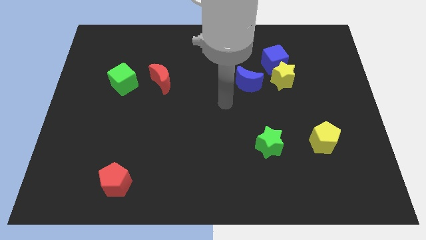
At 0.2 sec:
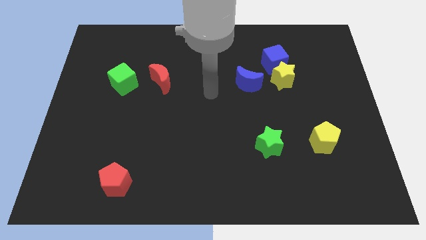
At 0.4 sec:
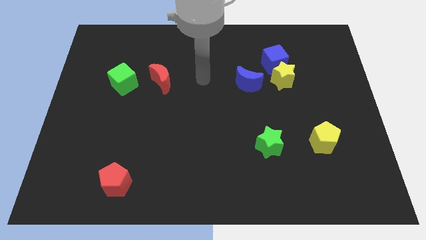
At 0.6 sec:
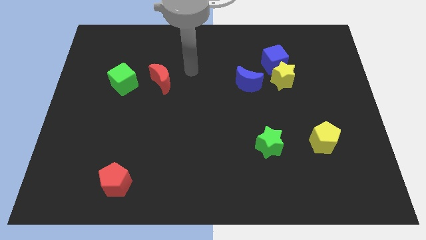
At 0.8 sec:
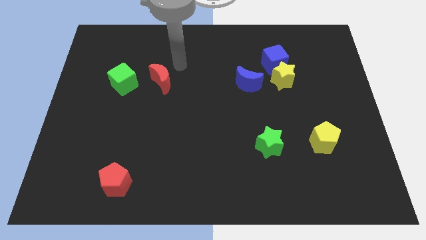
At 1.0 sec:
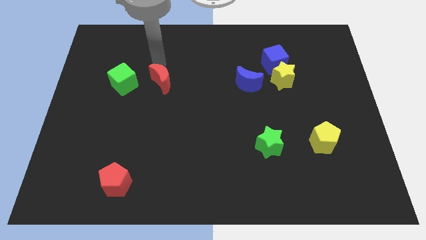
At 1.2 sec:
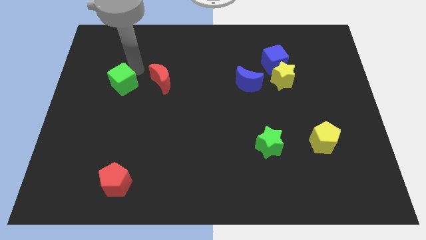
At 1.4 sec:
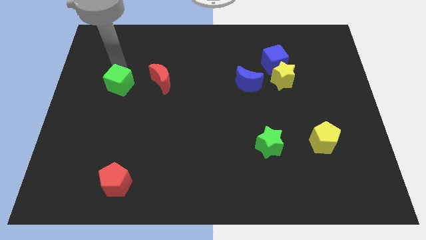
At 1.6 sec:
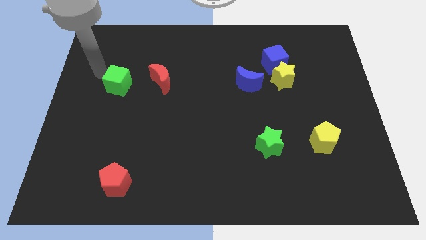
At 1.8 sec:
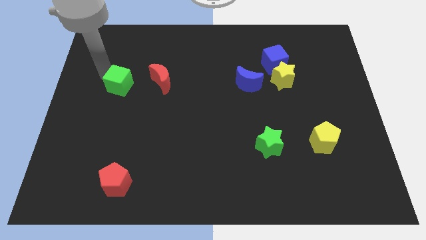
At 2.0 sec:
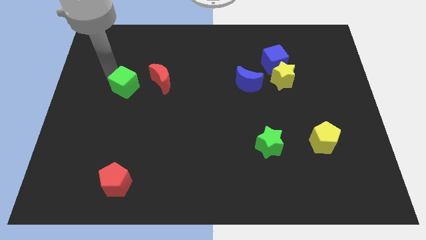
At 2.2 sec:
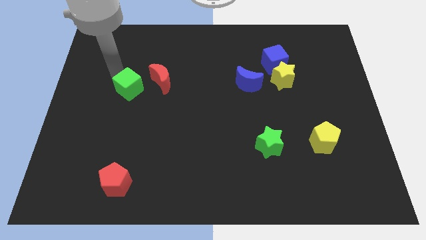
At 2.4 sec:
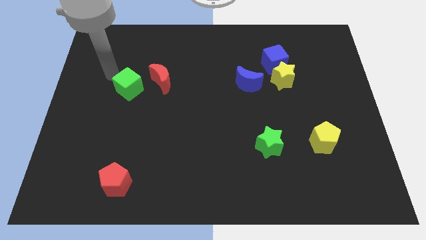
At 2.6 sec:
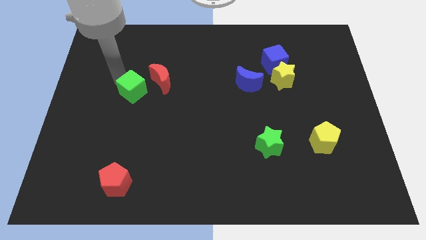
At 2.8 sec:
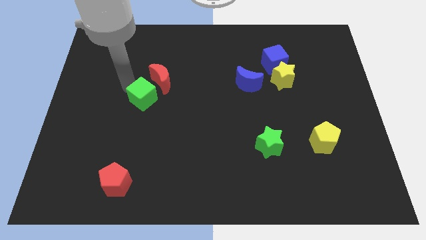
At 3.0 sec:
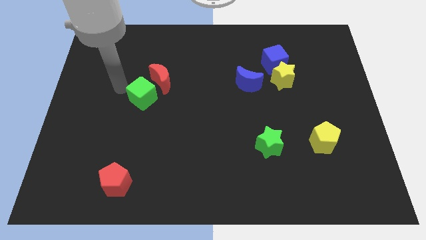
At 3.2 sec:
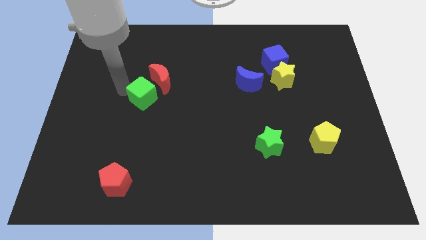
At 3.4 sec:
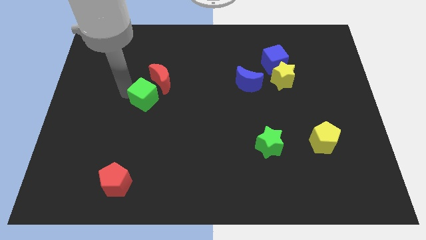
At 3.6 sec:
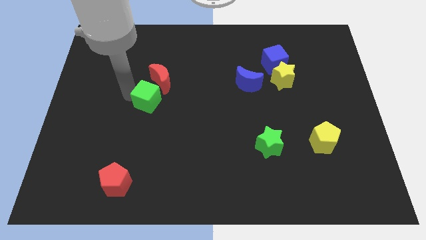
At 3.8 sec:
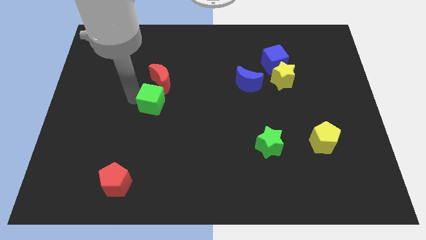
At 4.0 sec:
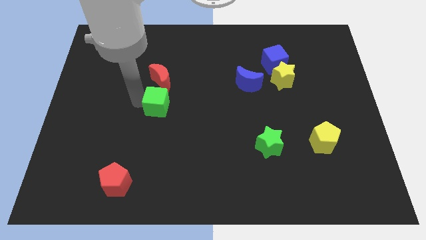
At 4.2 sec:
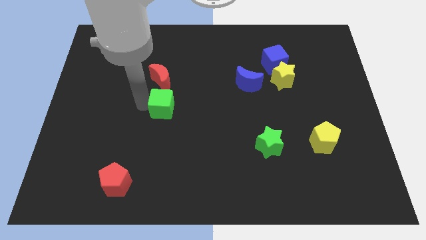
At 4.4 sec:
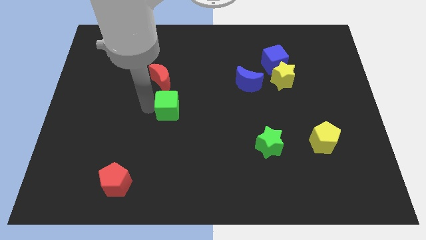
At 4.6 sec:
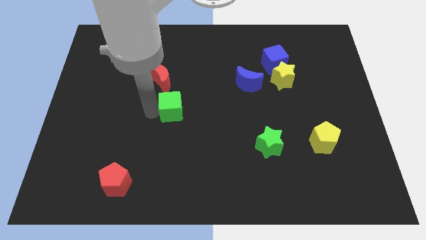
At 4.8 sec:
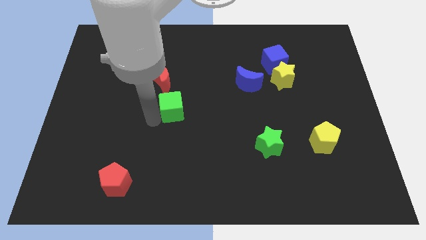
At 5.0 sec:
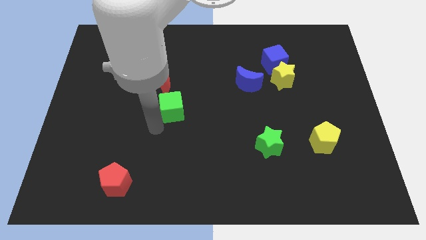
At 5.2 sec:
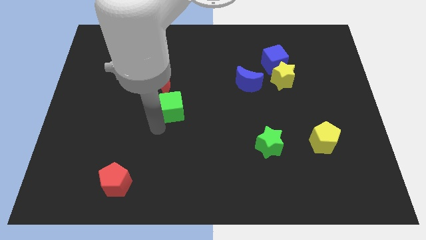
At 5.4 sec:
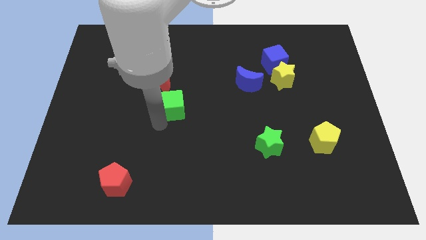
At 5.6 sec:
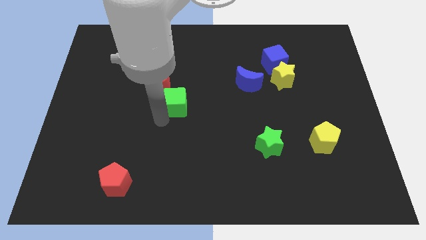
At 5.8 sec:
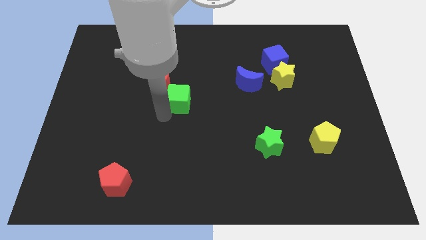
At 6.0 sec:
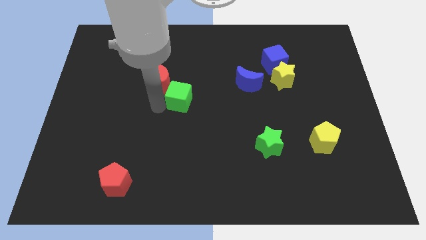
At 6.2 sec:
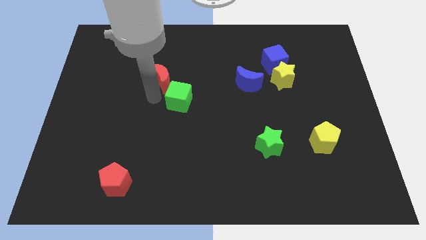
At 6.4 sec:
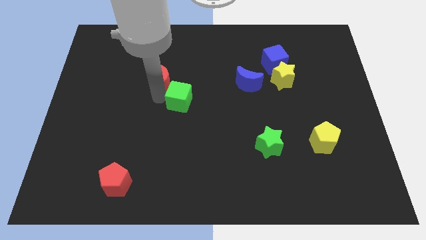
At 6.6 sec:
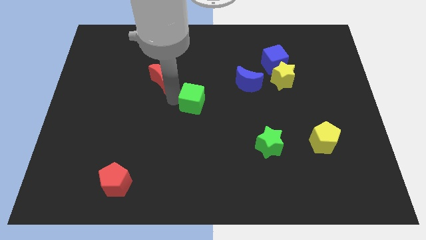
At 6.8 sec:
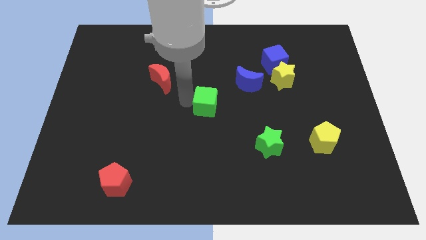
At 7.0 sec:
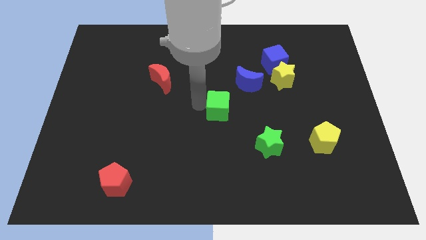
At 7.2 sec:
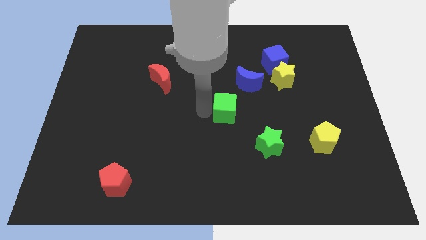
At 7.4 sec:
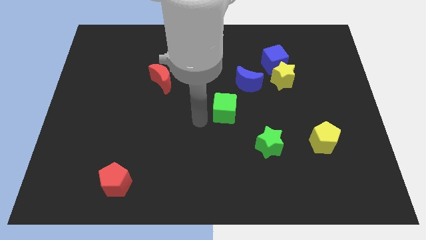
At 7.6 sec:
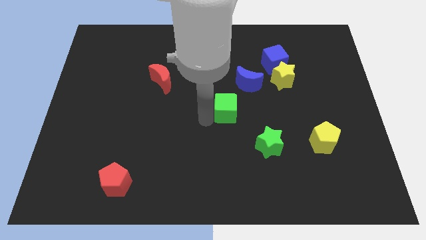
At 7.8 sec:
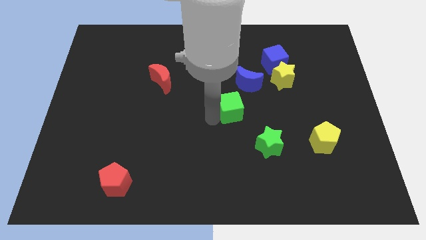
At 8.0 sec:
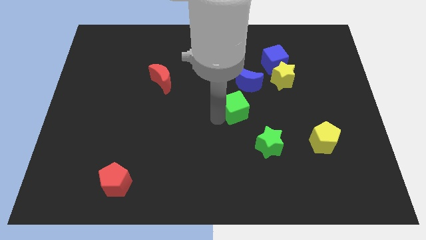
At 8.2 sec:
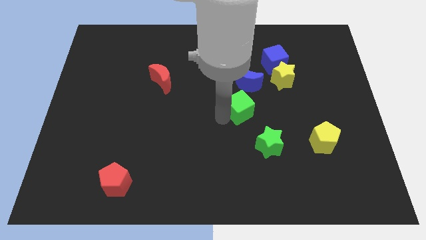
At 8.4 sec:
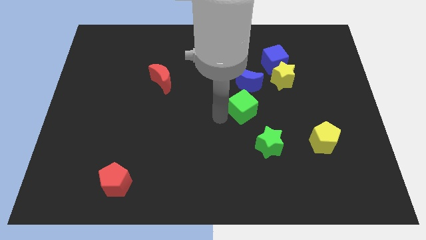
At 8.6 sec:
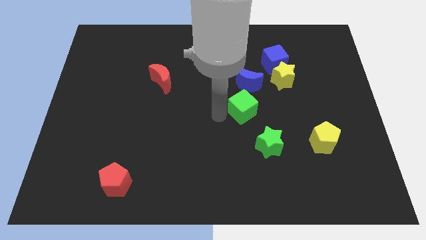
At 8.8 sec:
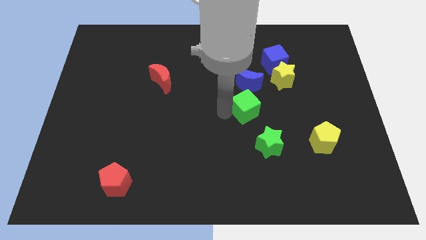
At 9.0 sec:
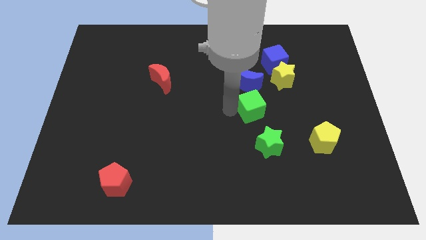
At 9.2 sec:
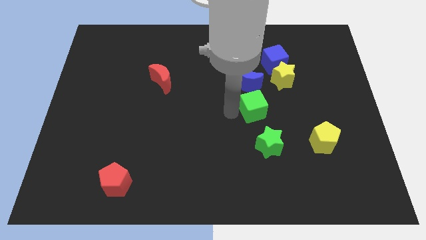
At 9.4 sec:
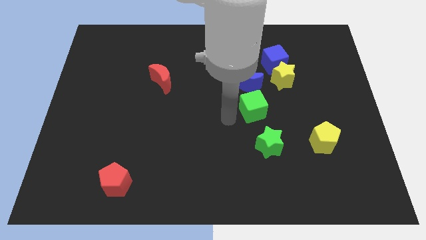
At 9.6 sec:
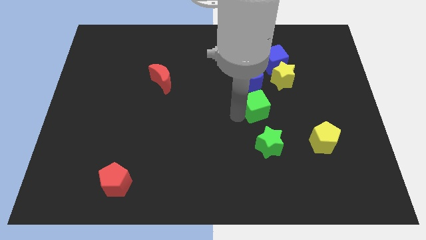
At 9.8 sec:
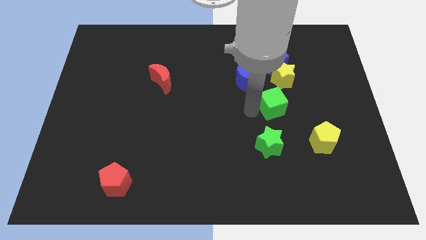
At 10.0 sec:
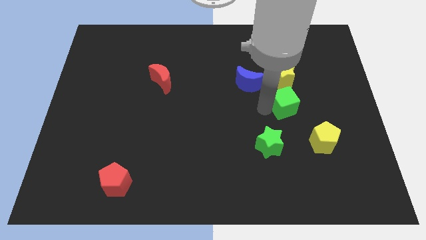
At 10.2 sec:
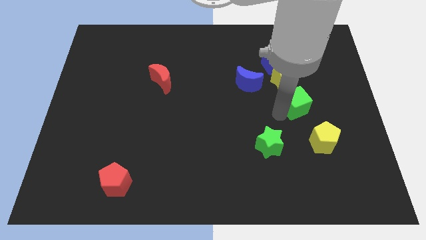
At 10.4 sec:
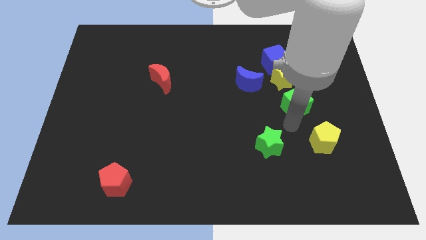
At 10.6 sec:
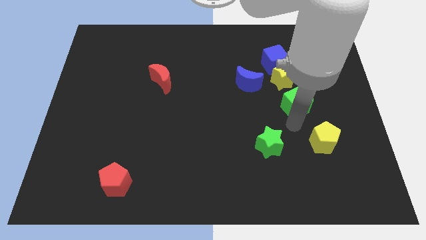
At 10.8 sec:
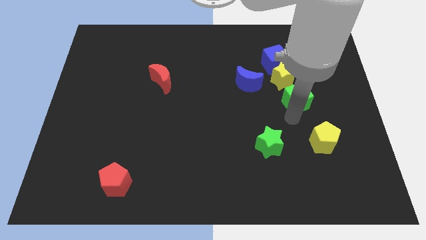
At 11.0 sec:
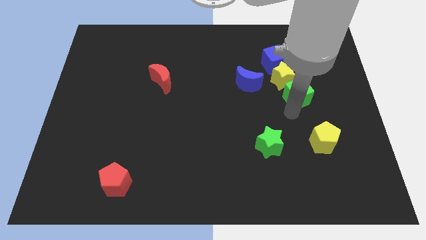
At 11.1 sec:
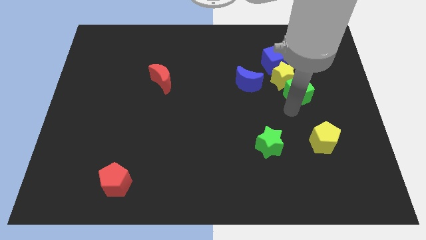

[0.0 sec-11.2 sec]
put the green cube to the bottom right of the blue cube

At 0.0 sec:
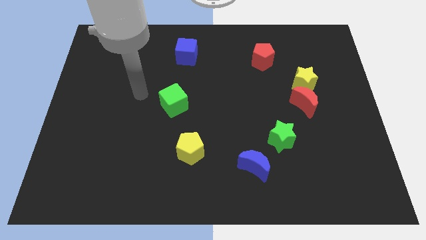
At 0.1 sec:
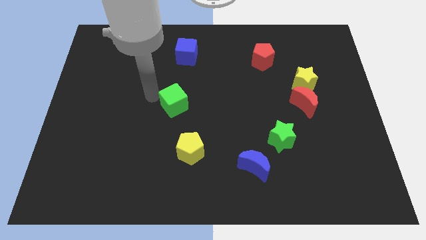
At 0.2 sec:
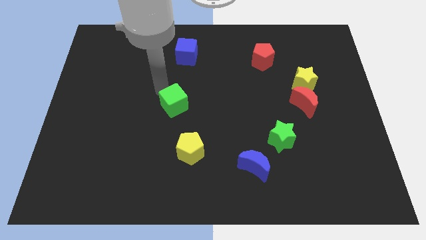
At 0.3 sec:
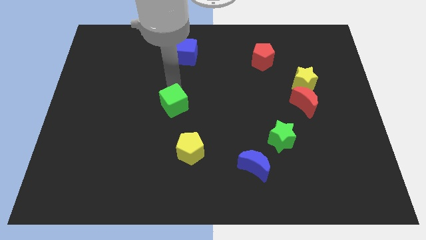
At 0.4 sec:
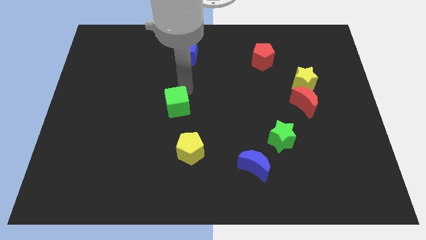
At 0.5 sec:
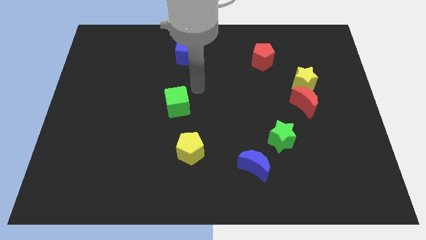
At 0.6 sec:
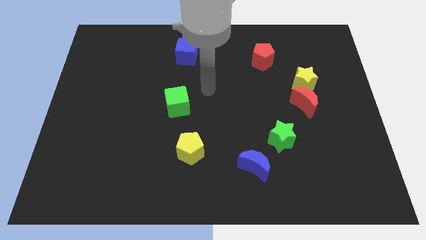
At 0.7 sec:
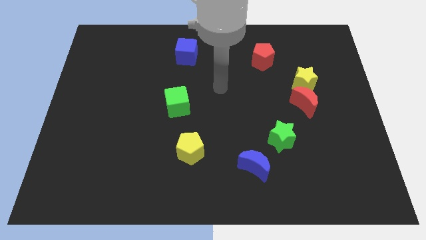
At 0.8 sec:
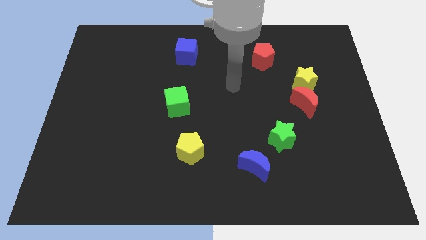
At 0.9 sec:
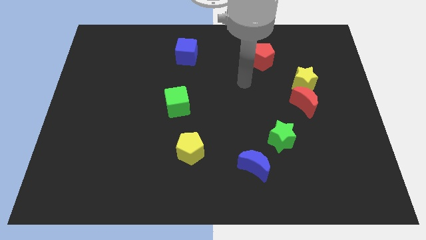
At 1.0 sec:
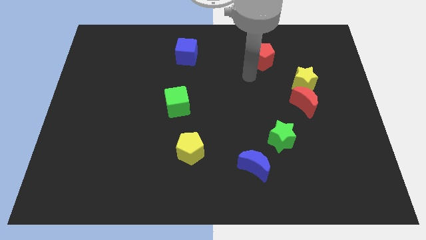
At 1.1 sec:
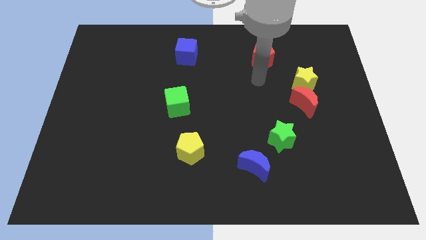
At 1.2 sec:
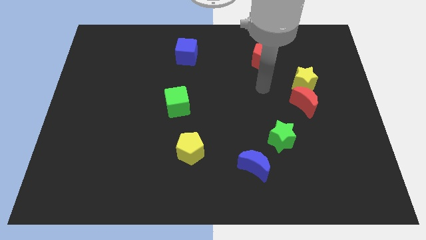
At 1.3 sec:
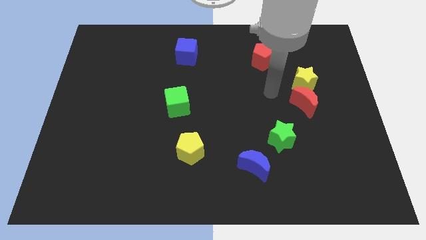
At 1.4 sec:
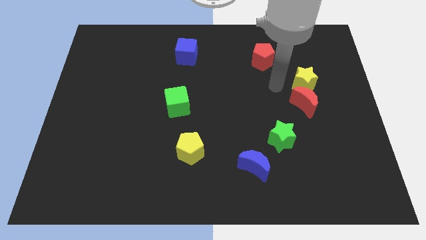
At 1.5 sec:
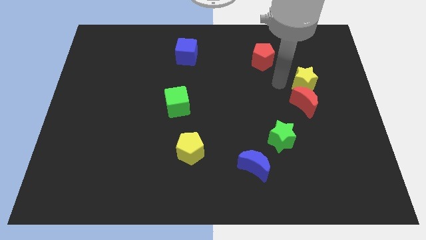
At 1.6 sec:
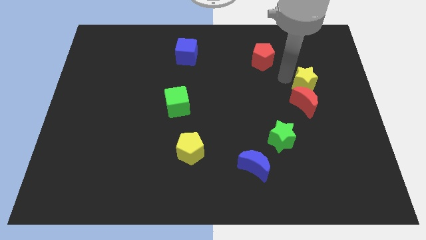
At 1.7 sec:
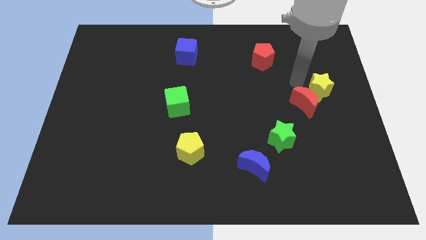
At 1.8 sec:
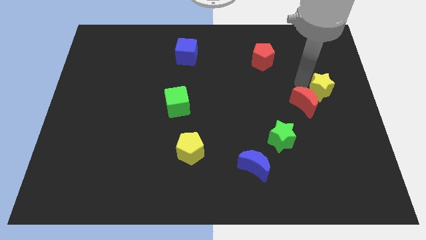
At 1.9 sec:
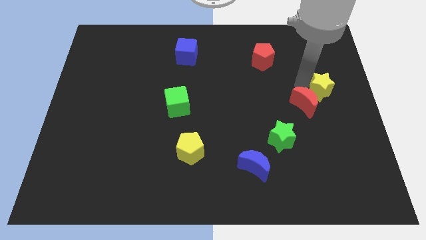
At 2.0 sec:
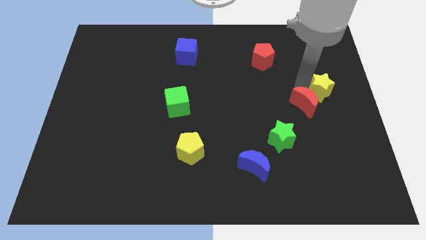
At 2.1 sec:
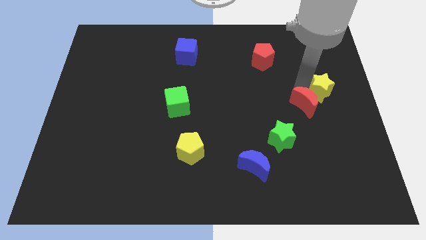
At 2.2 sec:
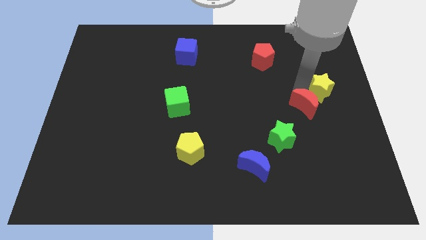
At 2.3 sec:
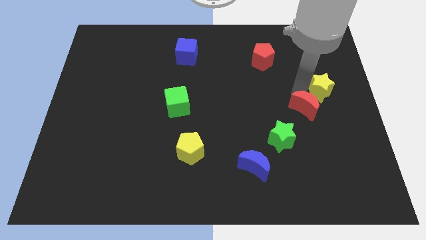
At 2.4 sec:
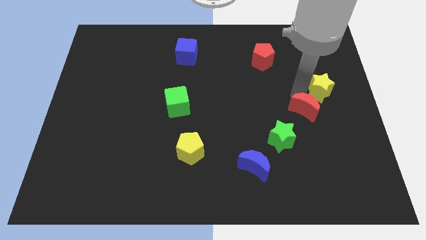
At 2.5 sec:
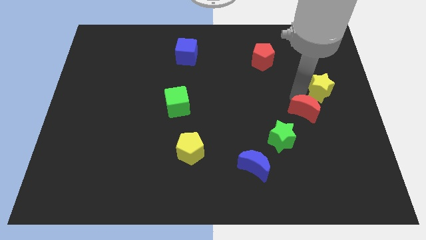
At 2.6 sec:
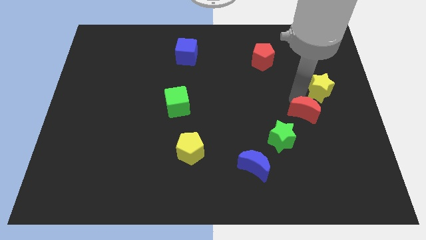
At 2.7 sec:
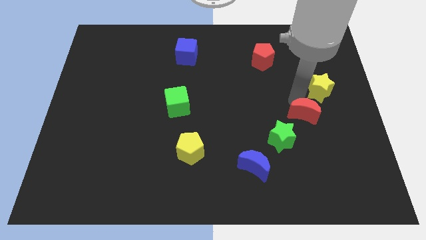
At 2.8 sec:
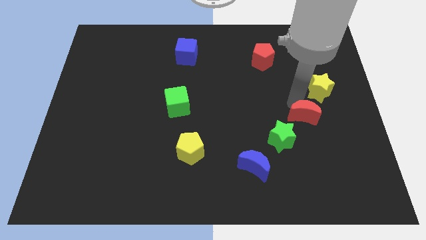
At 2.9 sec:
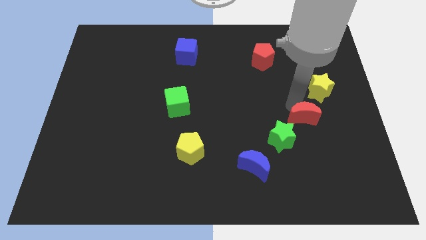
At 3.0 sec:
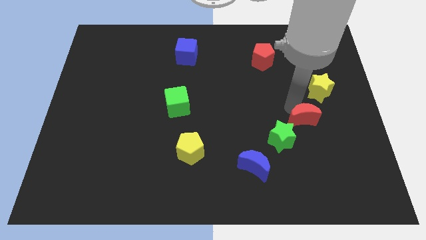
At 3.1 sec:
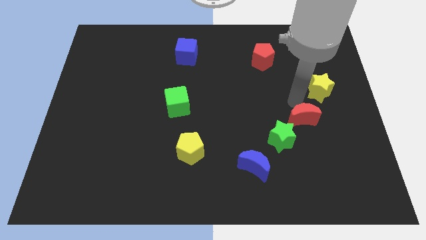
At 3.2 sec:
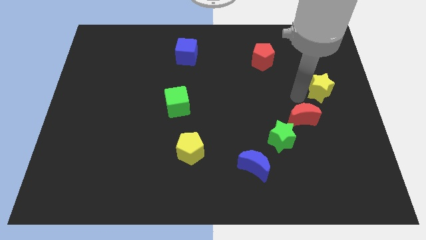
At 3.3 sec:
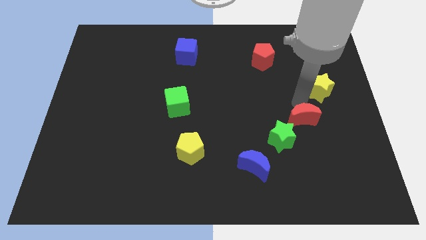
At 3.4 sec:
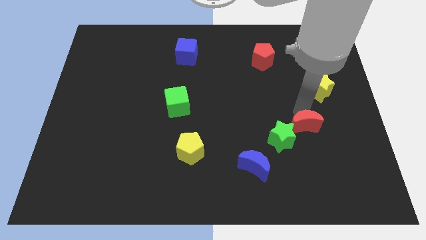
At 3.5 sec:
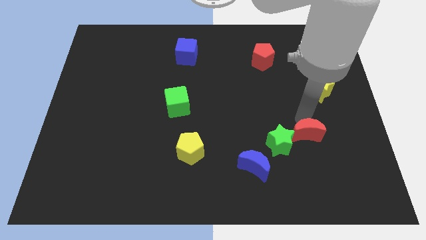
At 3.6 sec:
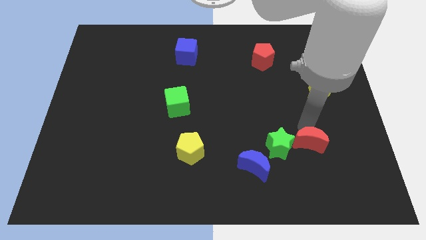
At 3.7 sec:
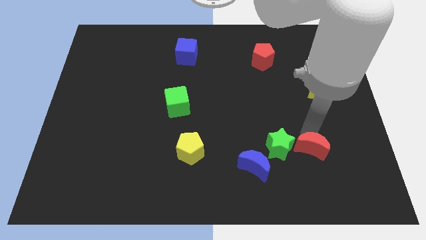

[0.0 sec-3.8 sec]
put the red moon to the bottom right side of the green star
